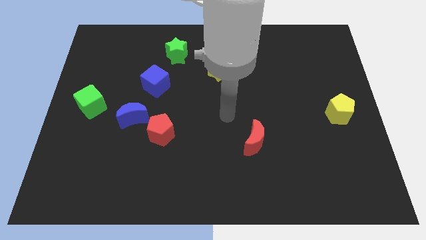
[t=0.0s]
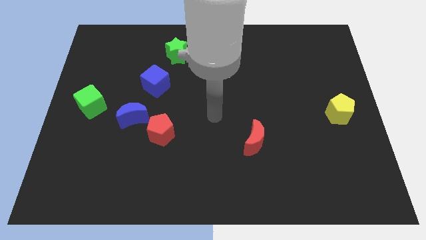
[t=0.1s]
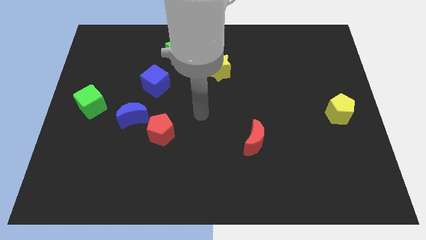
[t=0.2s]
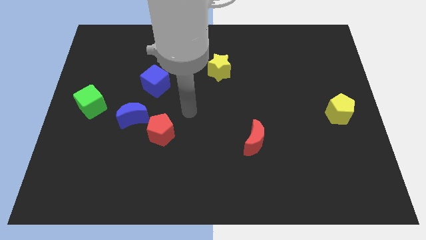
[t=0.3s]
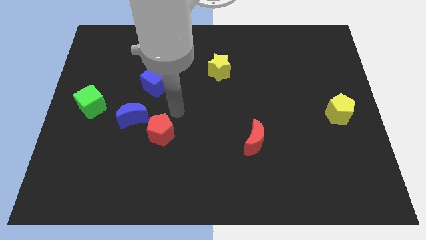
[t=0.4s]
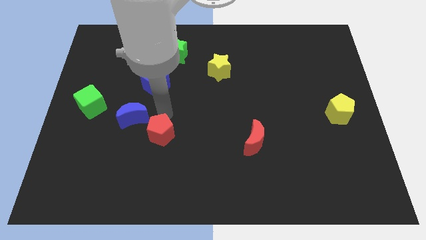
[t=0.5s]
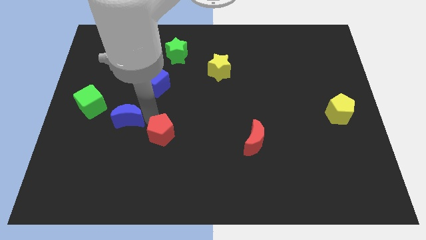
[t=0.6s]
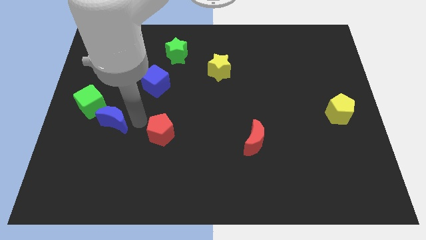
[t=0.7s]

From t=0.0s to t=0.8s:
move the red pentagon away from the blue moon

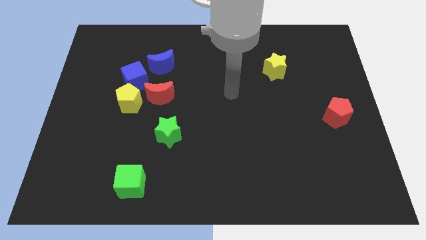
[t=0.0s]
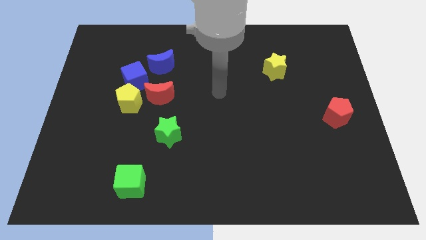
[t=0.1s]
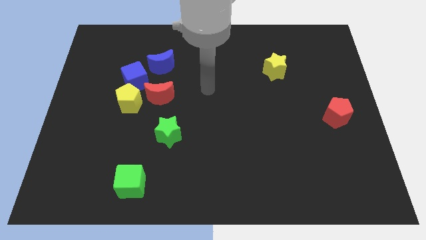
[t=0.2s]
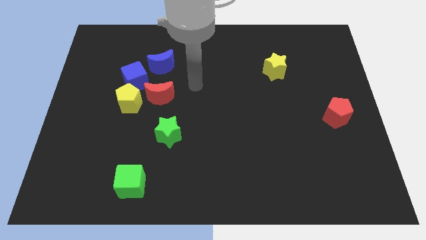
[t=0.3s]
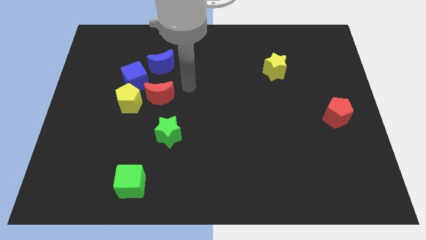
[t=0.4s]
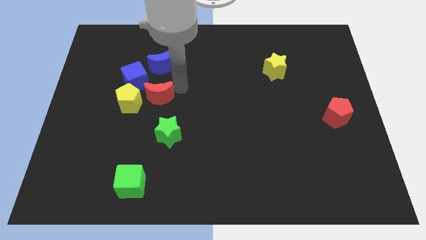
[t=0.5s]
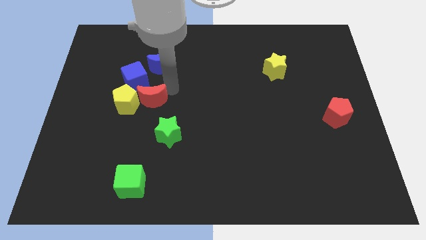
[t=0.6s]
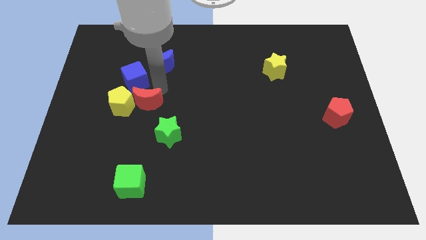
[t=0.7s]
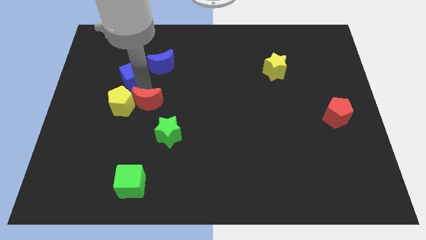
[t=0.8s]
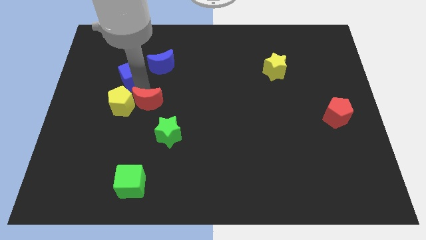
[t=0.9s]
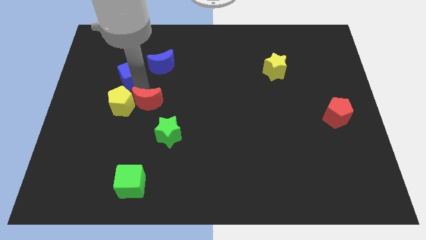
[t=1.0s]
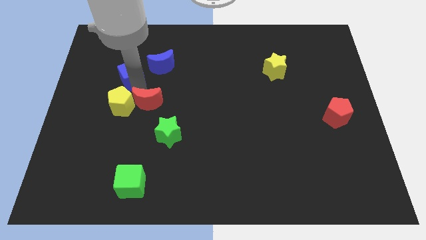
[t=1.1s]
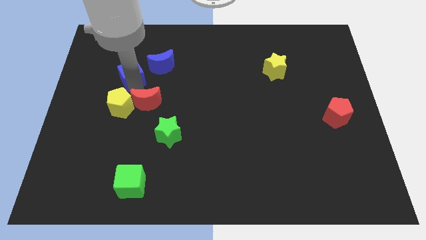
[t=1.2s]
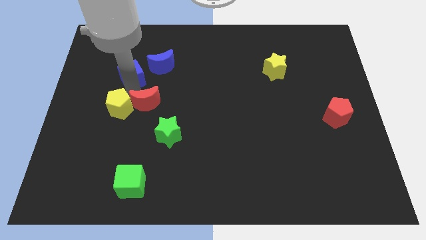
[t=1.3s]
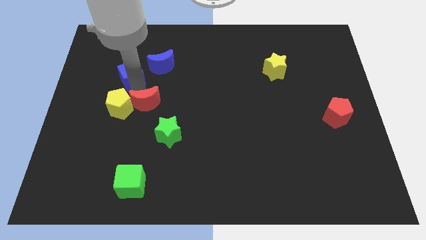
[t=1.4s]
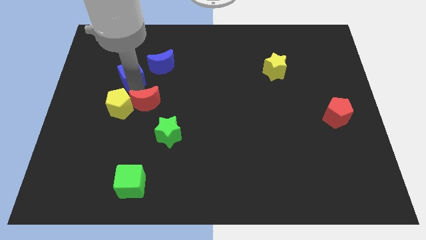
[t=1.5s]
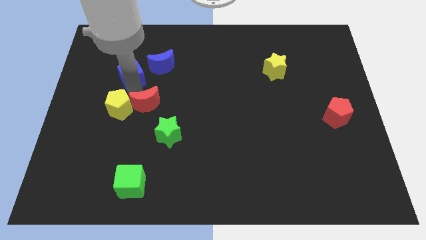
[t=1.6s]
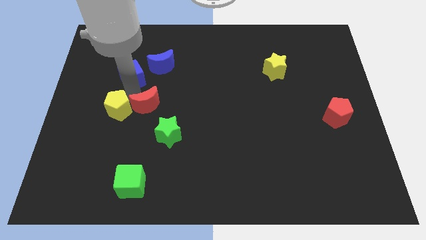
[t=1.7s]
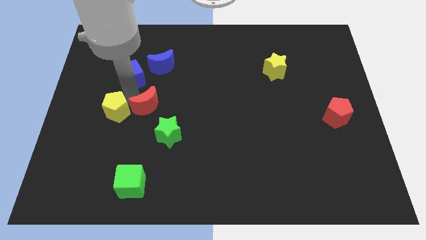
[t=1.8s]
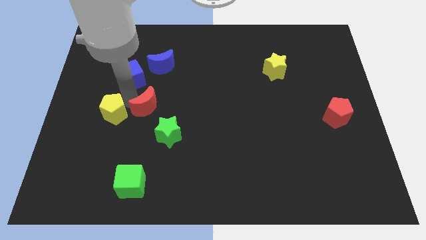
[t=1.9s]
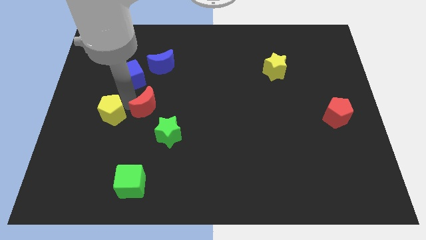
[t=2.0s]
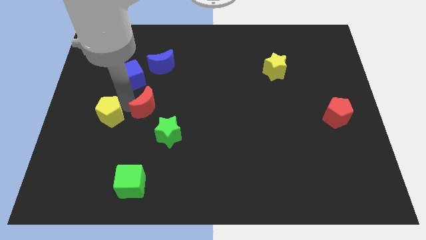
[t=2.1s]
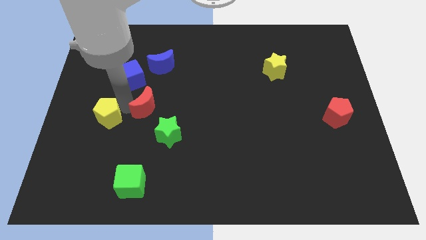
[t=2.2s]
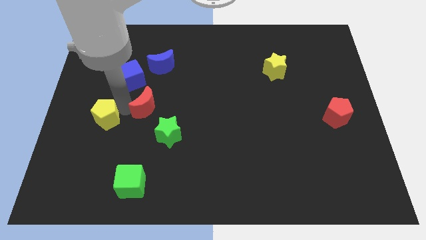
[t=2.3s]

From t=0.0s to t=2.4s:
pull the yellow pentagon apart from the blue cube and red moon

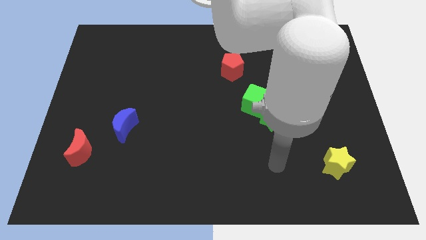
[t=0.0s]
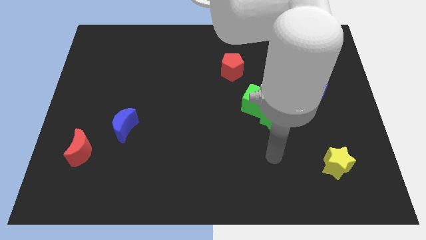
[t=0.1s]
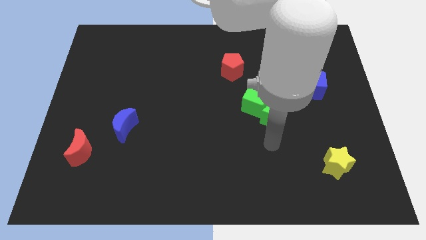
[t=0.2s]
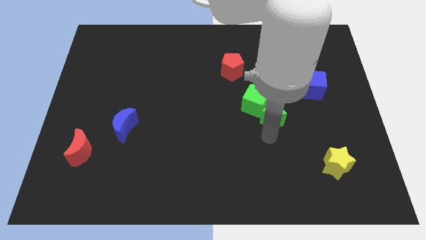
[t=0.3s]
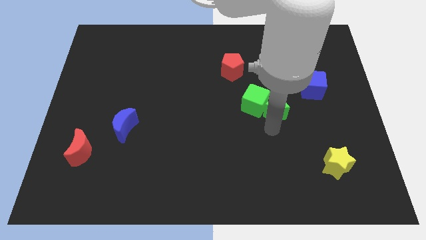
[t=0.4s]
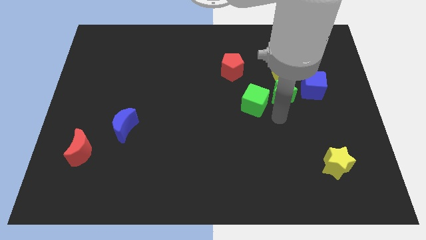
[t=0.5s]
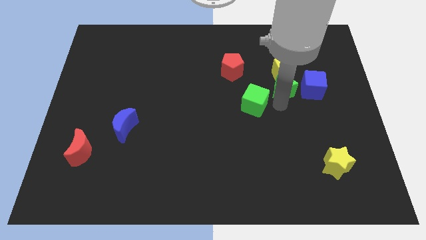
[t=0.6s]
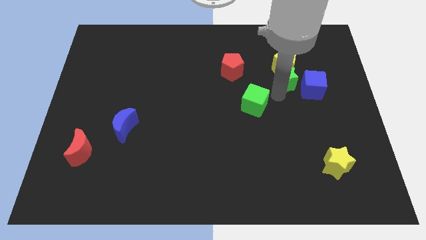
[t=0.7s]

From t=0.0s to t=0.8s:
separate the green cube from the green star

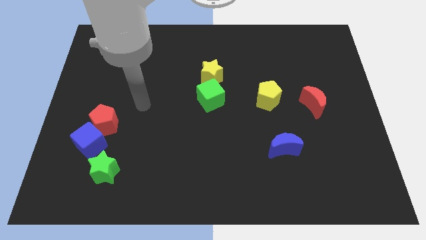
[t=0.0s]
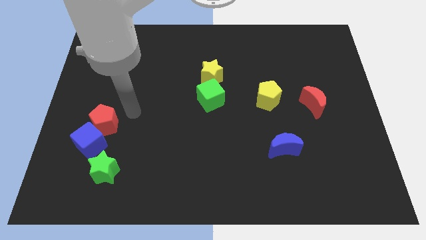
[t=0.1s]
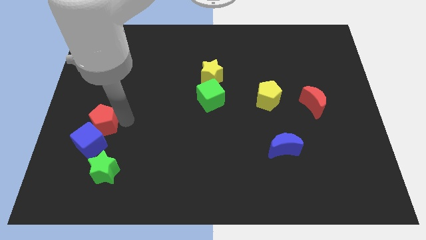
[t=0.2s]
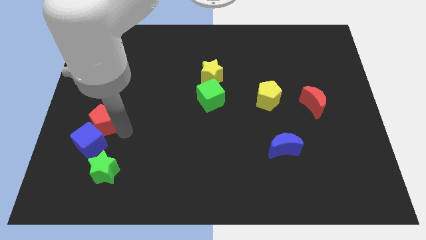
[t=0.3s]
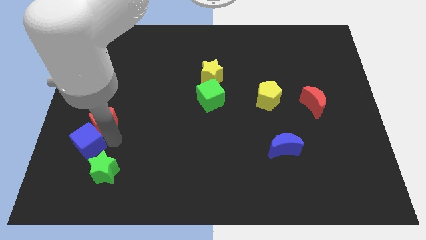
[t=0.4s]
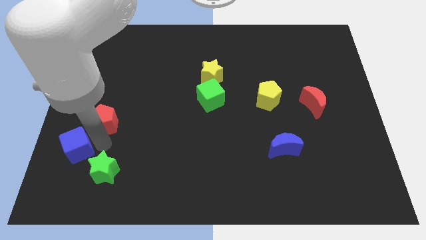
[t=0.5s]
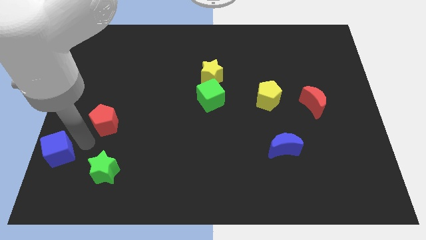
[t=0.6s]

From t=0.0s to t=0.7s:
move the red pentagon away from the blue cube

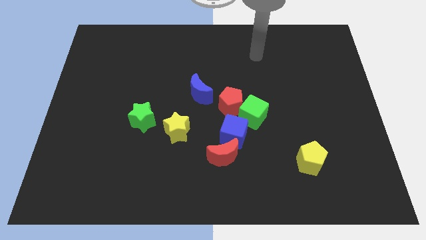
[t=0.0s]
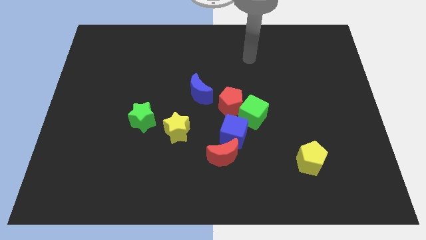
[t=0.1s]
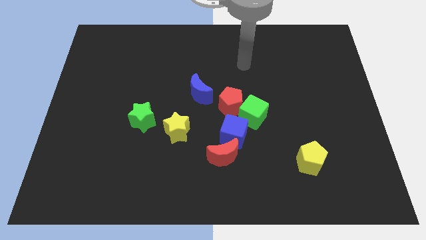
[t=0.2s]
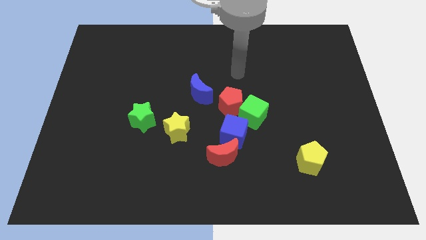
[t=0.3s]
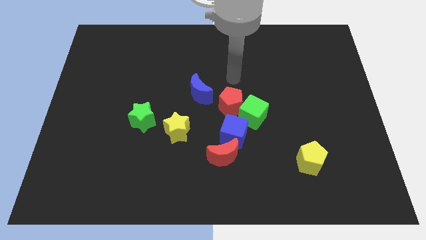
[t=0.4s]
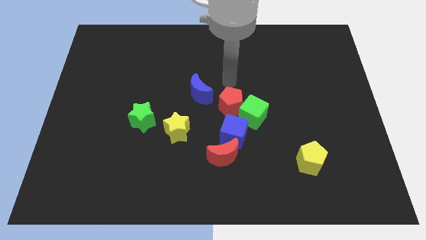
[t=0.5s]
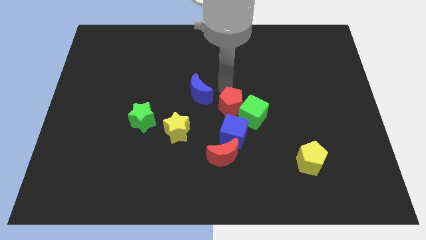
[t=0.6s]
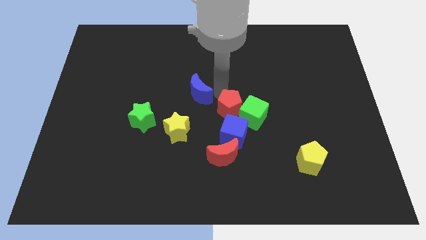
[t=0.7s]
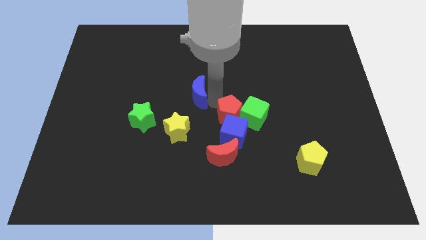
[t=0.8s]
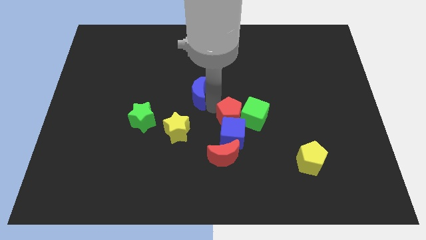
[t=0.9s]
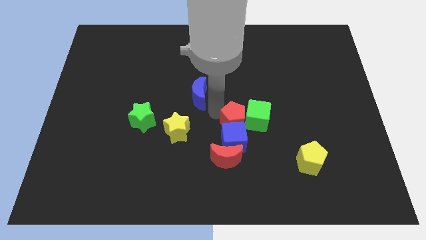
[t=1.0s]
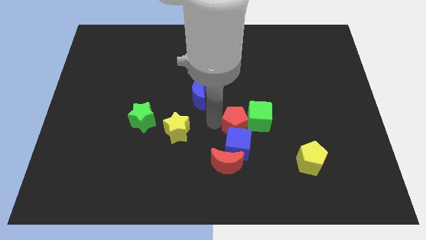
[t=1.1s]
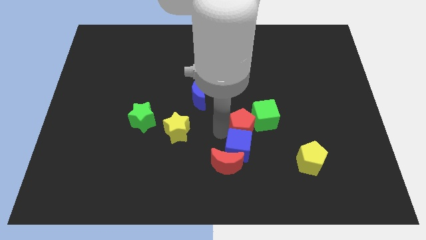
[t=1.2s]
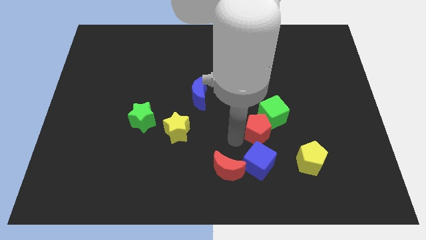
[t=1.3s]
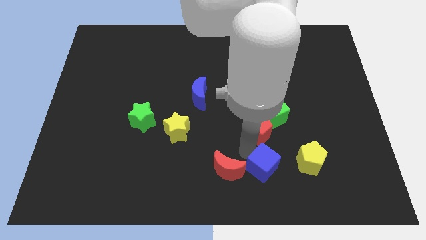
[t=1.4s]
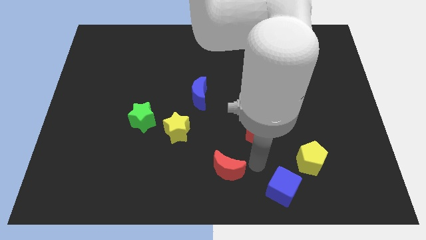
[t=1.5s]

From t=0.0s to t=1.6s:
move the red moon away from the blue cube

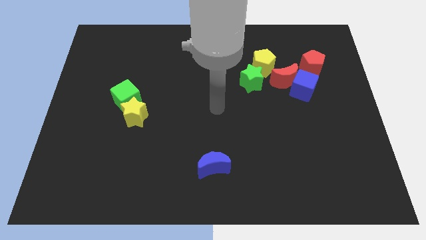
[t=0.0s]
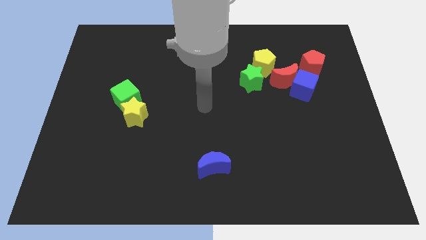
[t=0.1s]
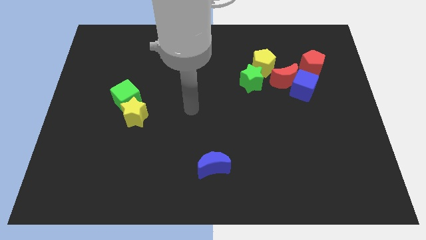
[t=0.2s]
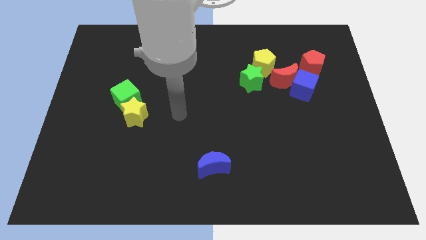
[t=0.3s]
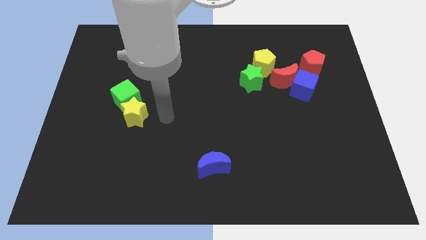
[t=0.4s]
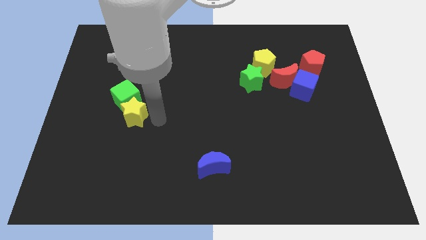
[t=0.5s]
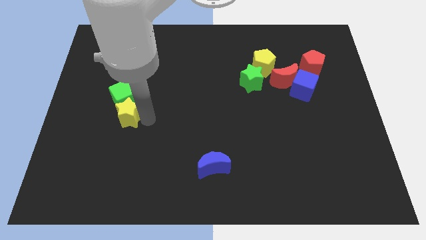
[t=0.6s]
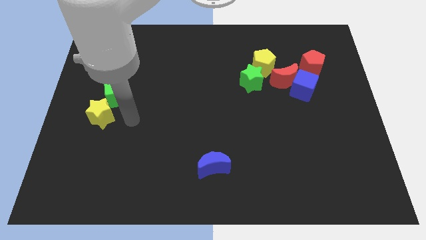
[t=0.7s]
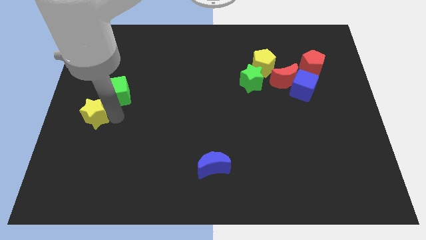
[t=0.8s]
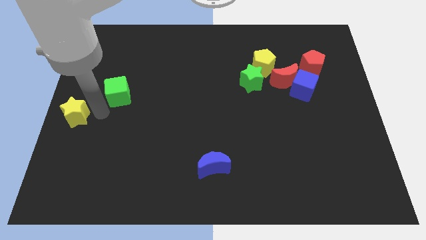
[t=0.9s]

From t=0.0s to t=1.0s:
separate the green cube from the yellow star

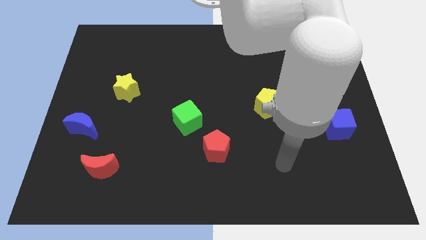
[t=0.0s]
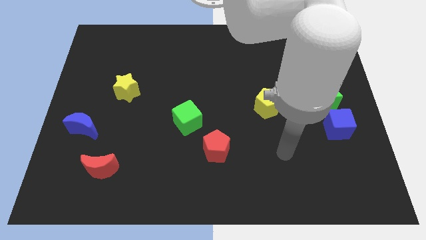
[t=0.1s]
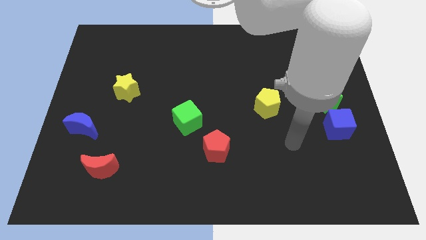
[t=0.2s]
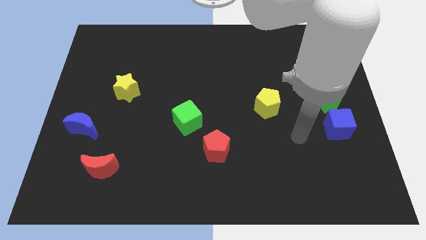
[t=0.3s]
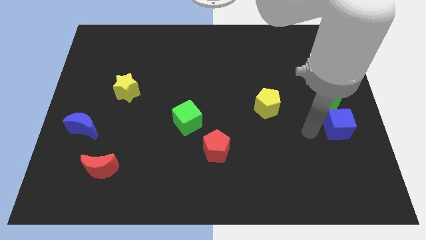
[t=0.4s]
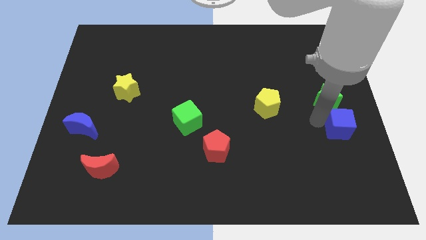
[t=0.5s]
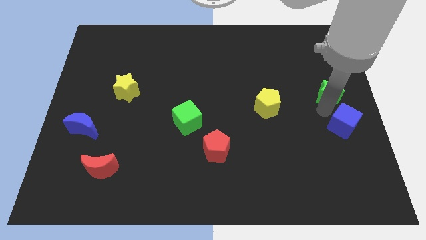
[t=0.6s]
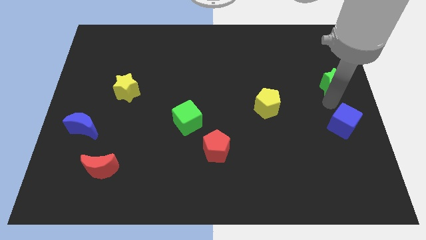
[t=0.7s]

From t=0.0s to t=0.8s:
pull the blue cube apart from the green star

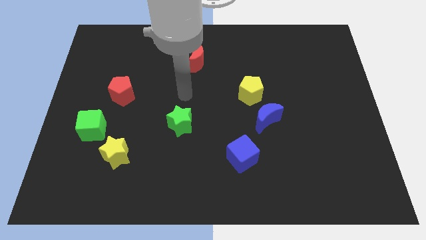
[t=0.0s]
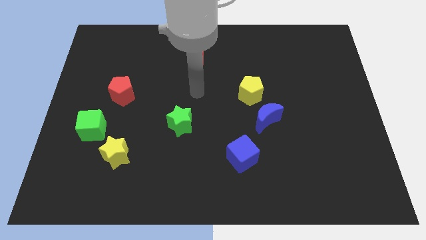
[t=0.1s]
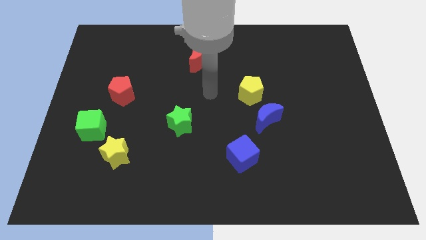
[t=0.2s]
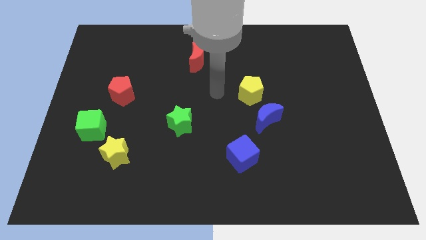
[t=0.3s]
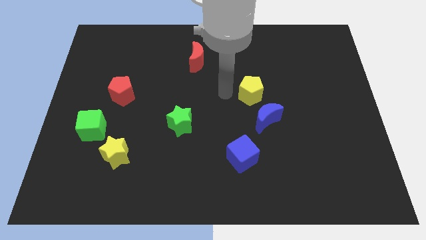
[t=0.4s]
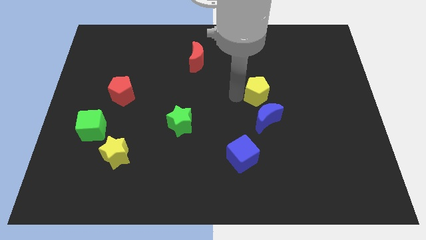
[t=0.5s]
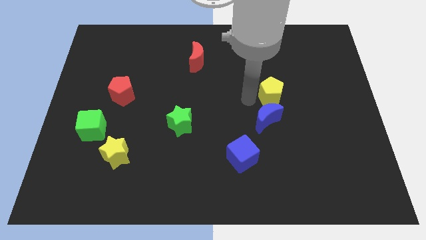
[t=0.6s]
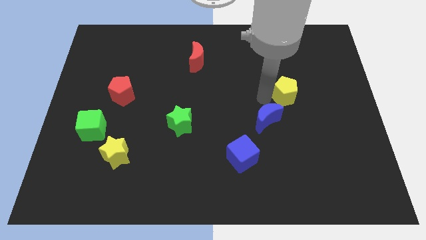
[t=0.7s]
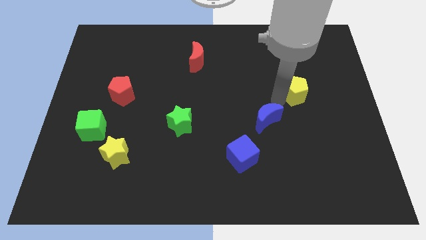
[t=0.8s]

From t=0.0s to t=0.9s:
pull the blue moon apart from the yellow pentagon

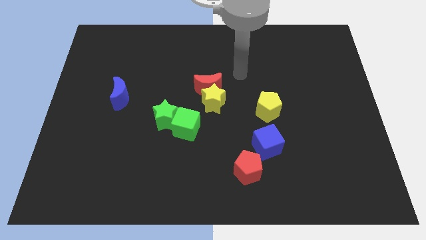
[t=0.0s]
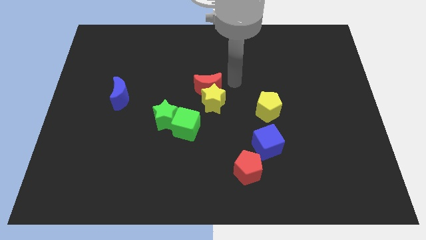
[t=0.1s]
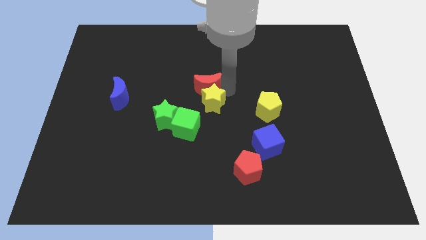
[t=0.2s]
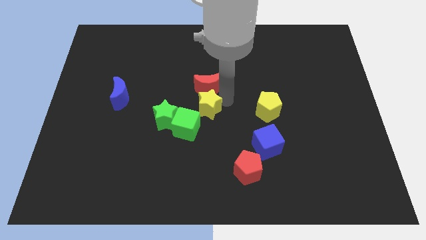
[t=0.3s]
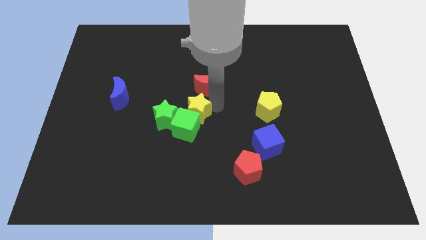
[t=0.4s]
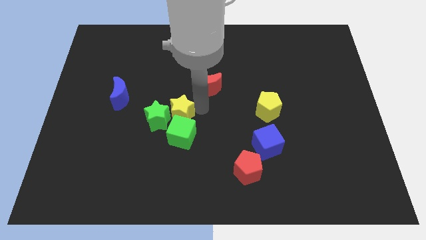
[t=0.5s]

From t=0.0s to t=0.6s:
move the red moon away from the yellow star
